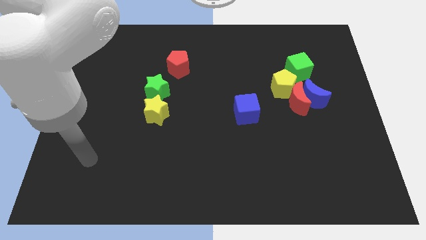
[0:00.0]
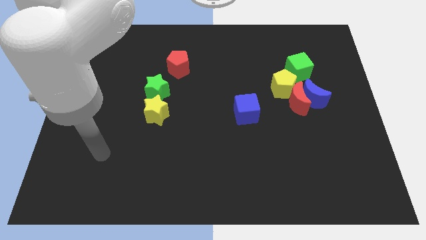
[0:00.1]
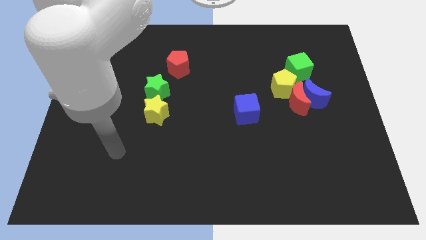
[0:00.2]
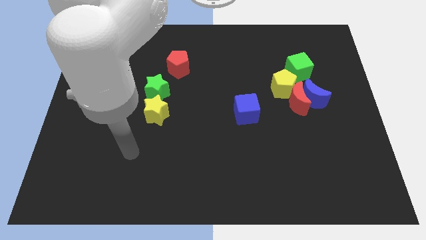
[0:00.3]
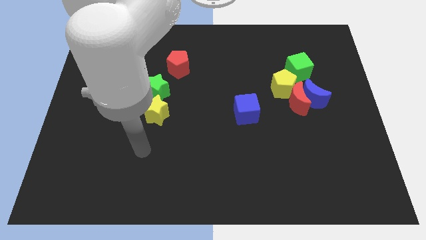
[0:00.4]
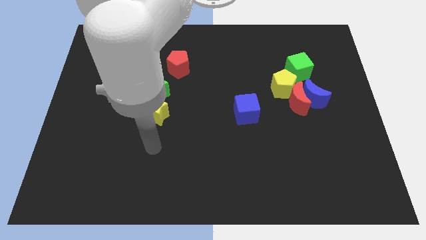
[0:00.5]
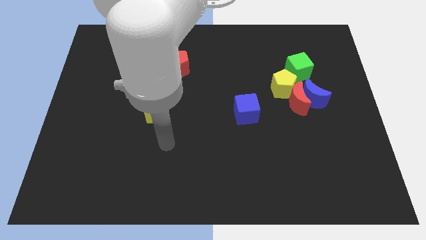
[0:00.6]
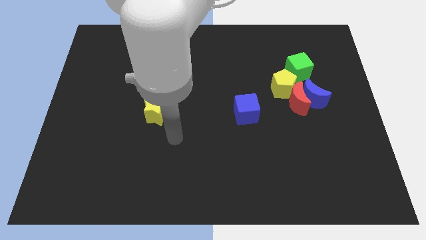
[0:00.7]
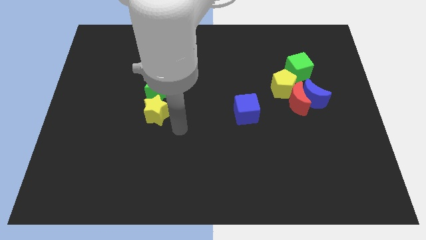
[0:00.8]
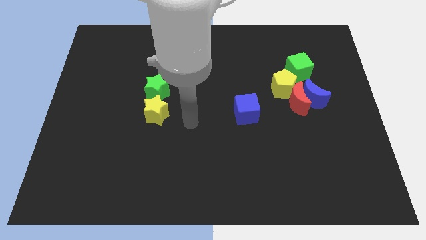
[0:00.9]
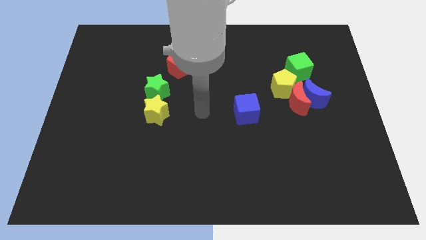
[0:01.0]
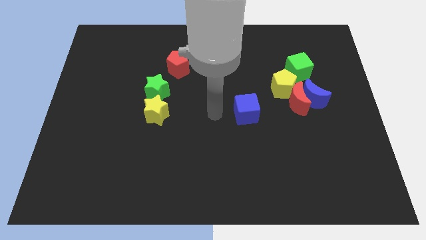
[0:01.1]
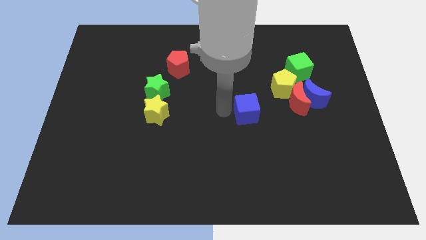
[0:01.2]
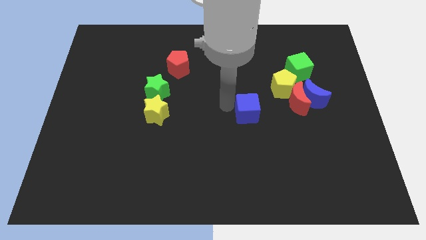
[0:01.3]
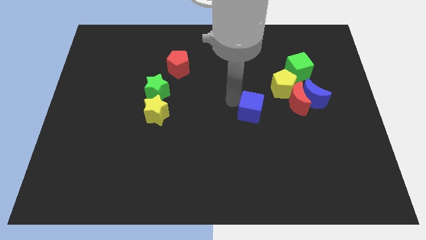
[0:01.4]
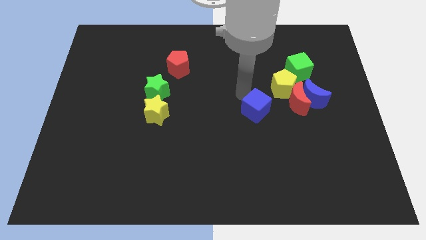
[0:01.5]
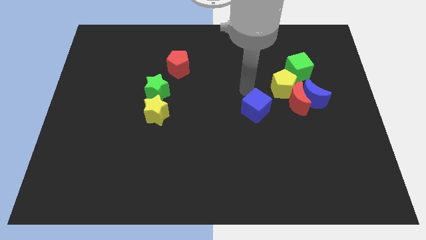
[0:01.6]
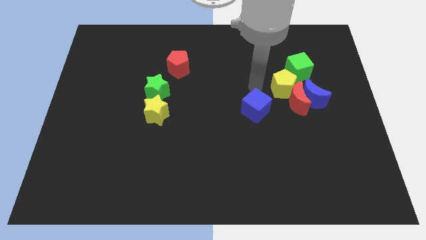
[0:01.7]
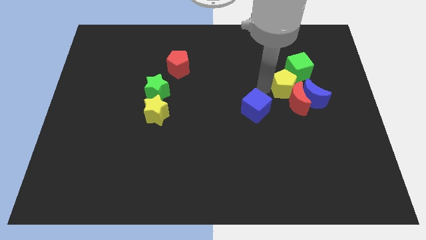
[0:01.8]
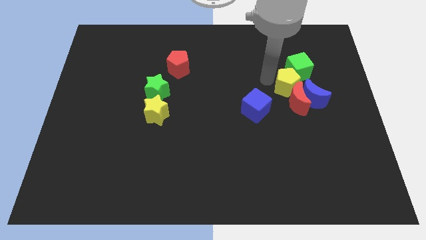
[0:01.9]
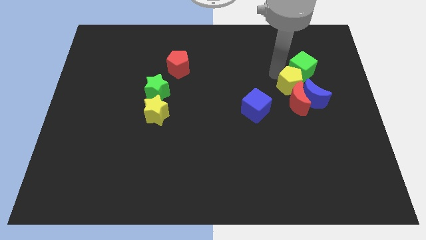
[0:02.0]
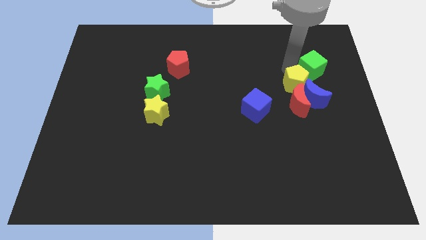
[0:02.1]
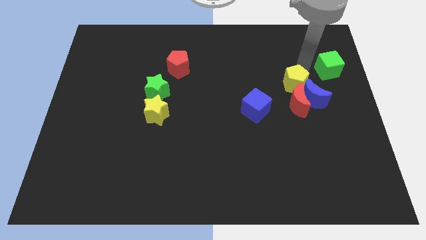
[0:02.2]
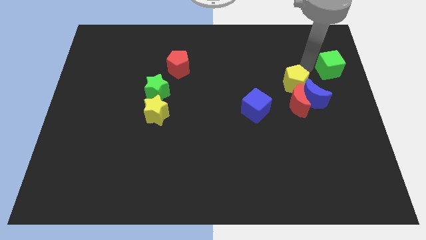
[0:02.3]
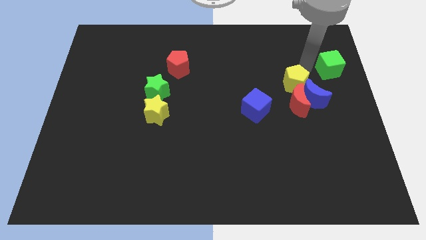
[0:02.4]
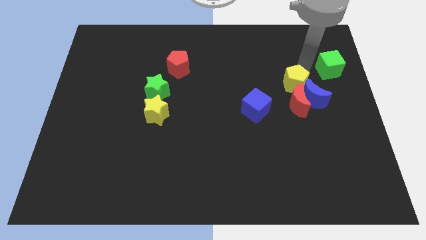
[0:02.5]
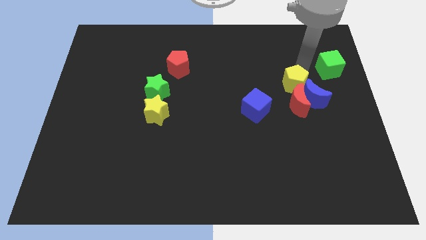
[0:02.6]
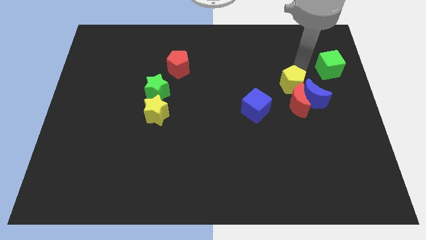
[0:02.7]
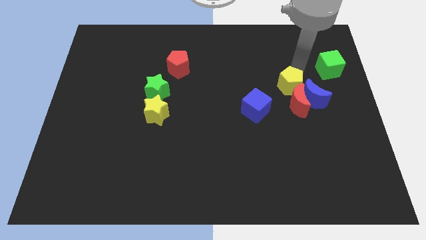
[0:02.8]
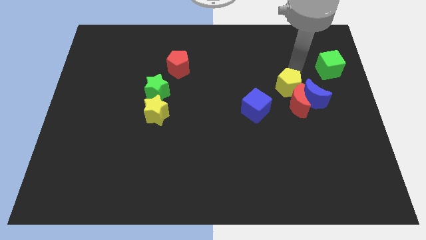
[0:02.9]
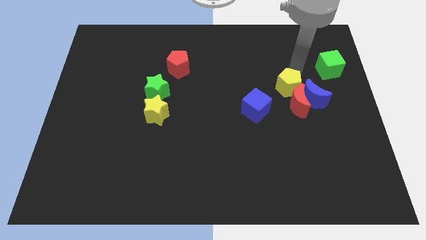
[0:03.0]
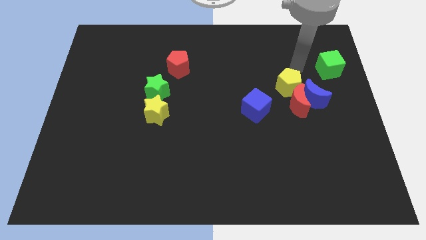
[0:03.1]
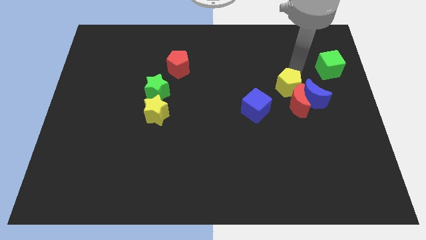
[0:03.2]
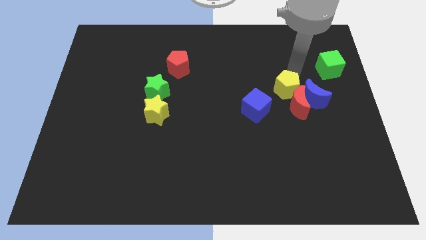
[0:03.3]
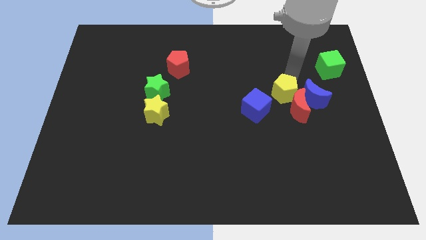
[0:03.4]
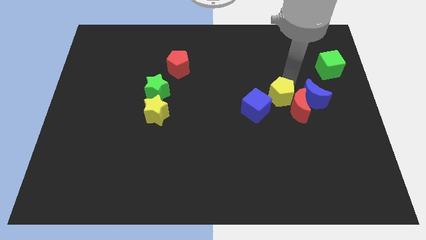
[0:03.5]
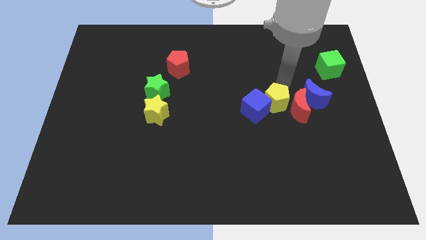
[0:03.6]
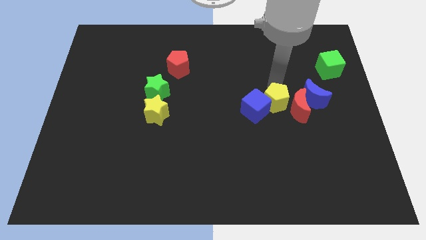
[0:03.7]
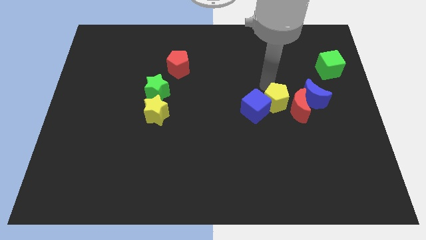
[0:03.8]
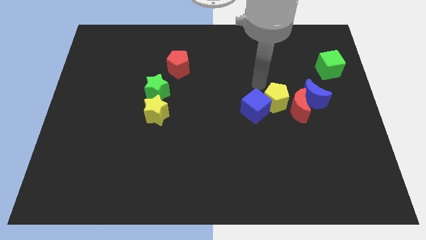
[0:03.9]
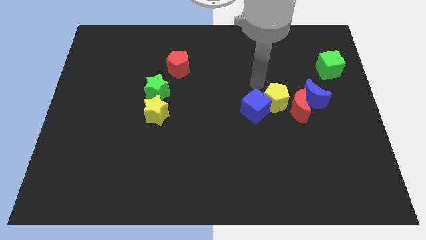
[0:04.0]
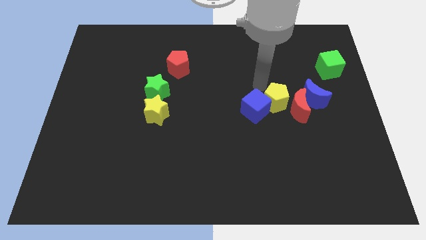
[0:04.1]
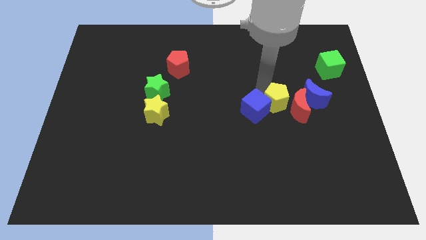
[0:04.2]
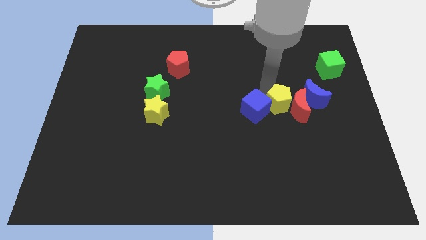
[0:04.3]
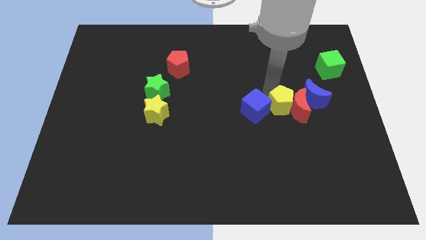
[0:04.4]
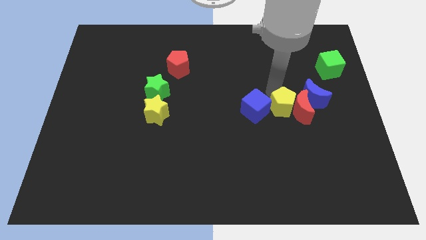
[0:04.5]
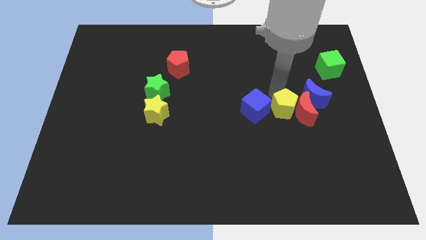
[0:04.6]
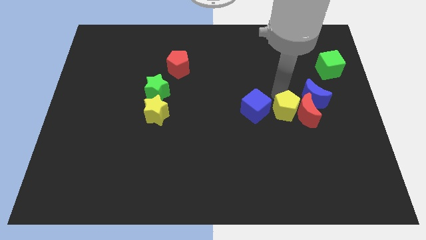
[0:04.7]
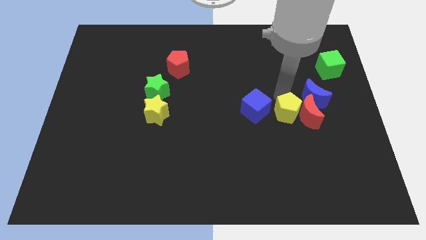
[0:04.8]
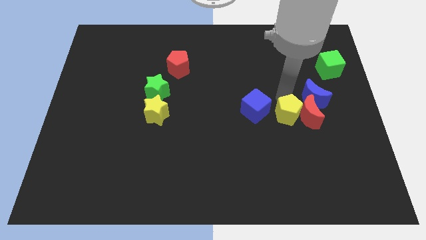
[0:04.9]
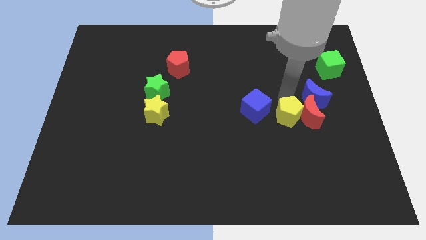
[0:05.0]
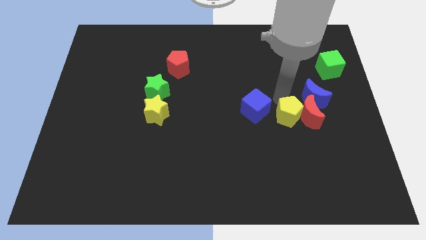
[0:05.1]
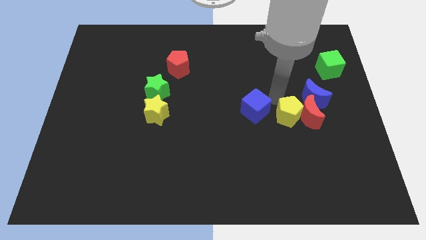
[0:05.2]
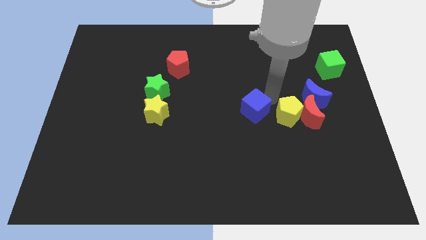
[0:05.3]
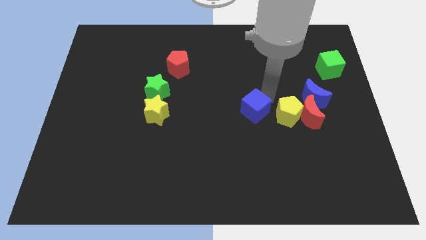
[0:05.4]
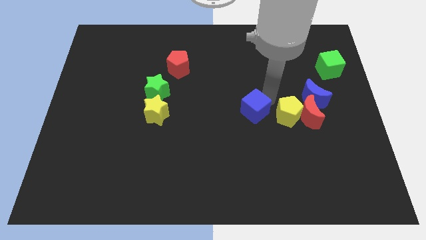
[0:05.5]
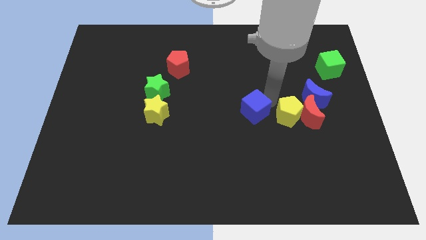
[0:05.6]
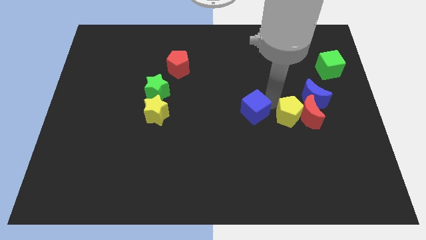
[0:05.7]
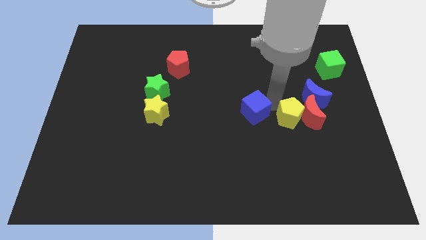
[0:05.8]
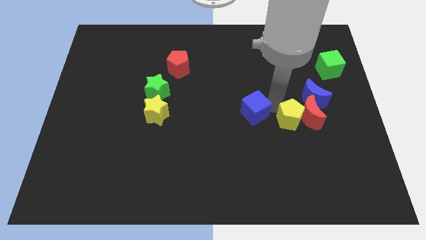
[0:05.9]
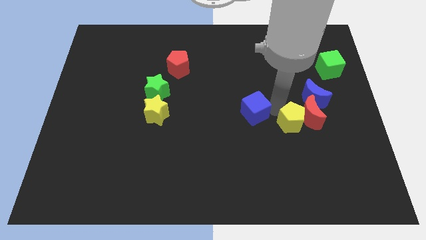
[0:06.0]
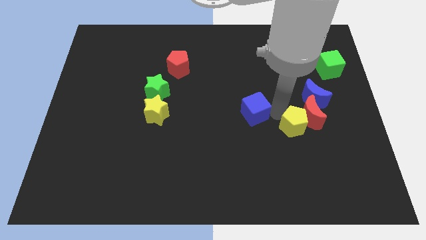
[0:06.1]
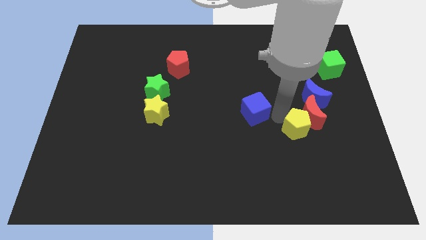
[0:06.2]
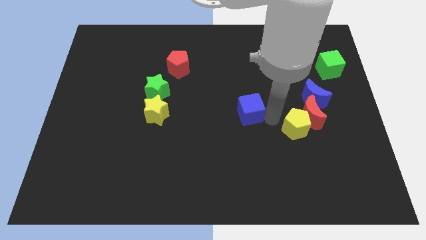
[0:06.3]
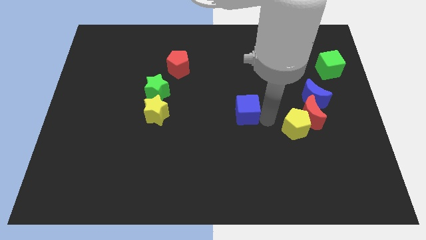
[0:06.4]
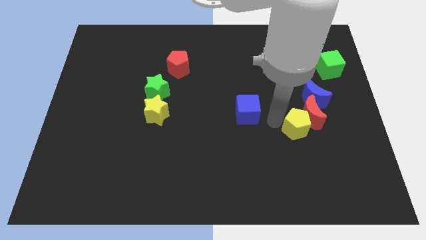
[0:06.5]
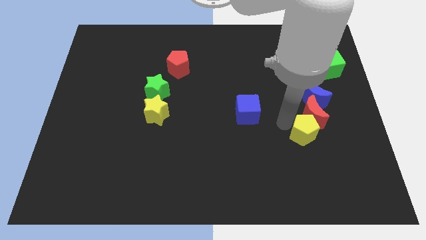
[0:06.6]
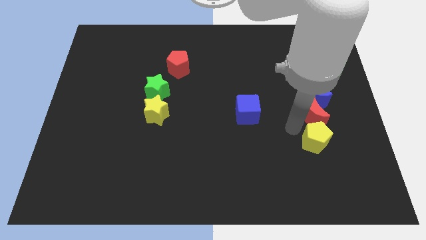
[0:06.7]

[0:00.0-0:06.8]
push the yellow pentagon to the bottom right of the red moon

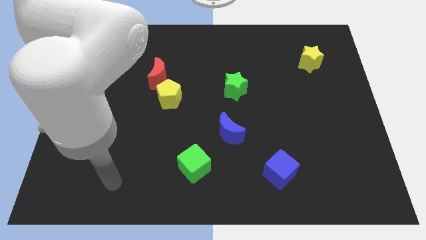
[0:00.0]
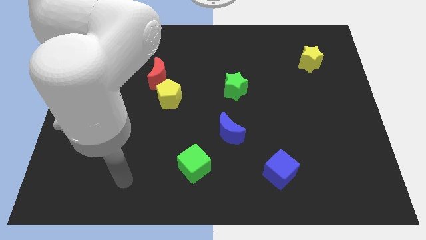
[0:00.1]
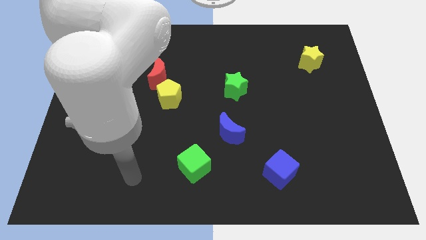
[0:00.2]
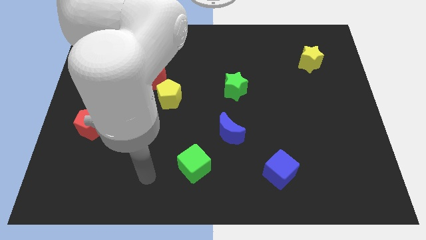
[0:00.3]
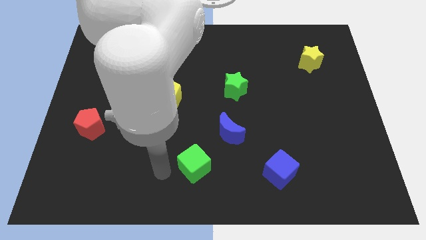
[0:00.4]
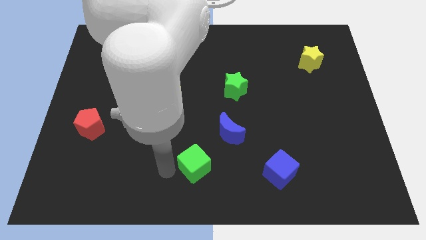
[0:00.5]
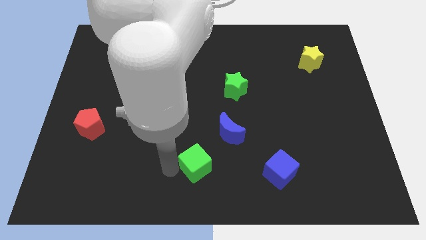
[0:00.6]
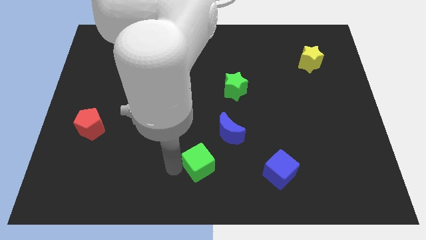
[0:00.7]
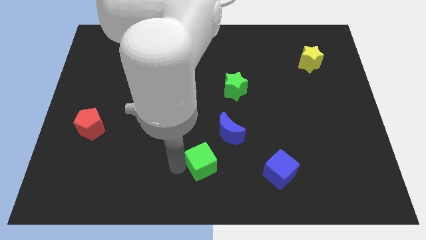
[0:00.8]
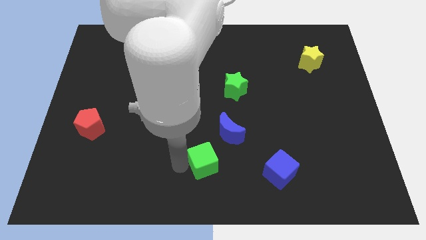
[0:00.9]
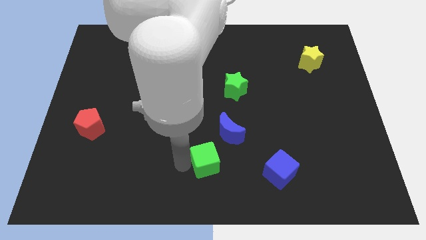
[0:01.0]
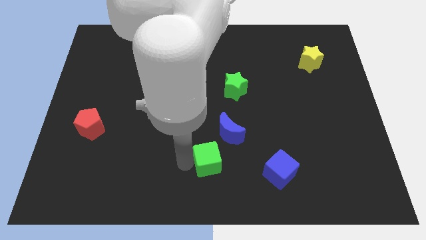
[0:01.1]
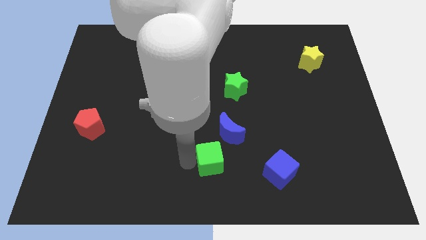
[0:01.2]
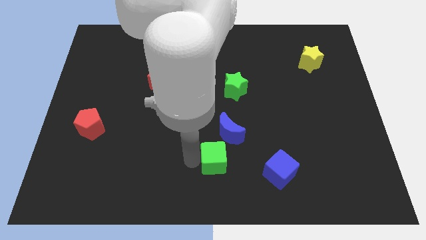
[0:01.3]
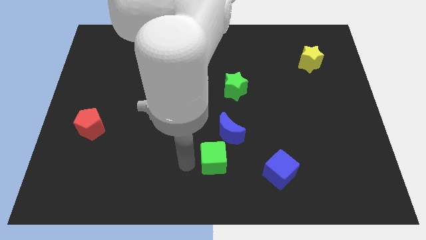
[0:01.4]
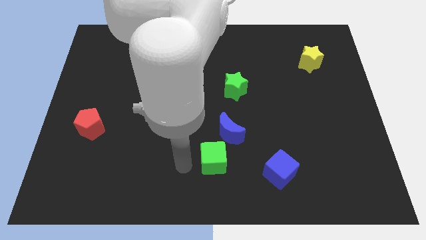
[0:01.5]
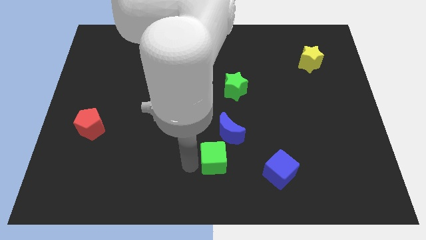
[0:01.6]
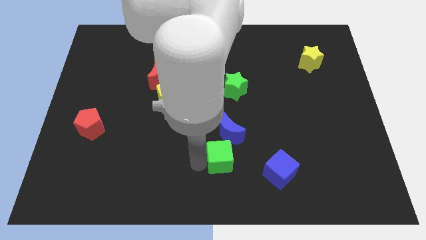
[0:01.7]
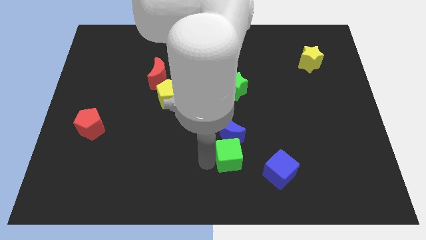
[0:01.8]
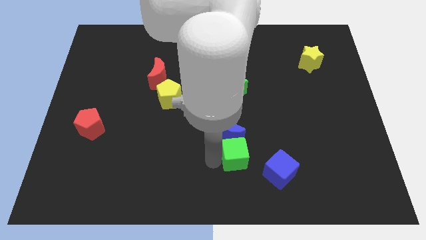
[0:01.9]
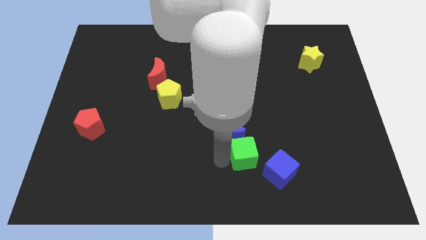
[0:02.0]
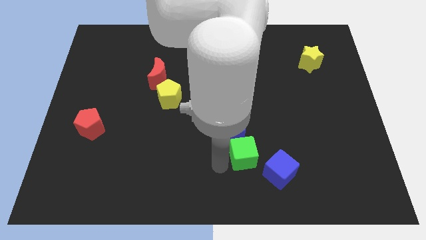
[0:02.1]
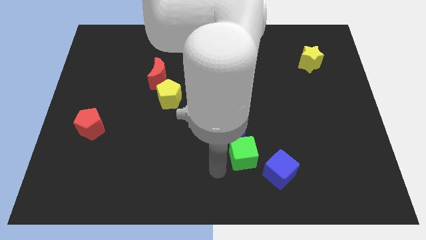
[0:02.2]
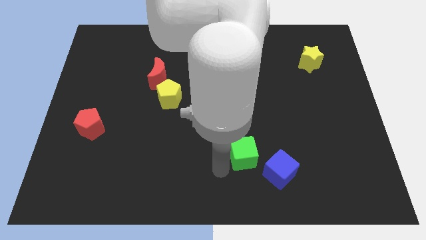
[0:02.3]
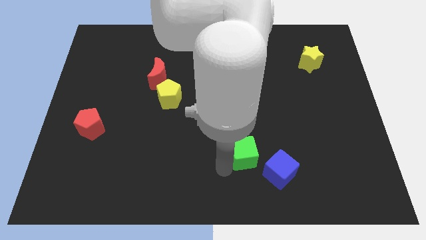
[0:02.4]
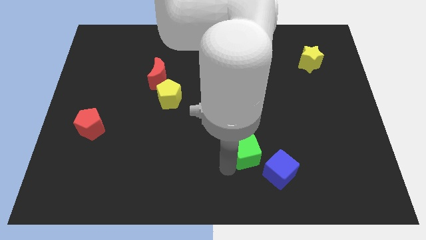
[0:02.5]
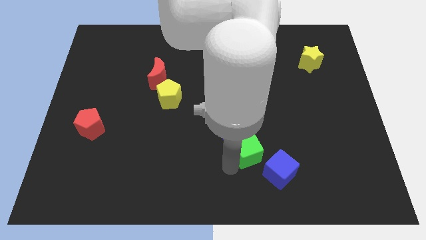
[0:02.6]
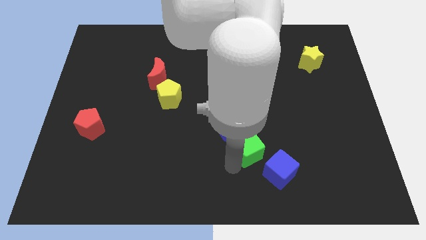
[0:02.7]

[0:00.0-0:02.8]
slide the green cube to the right of the blue moon
